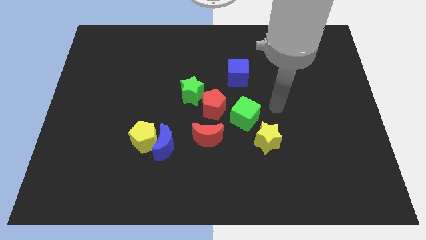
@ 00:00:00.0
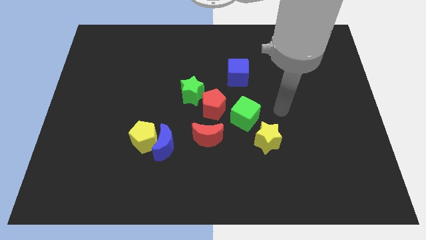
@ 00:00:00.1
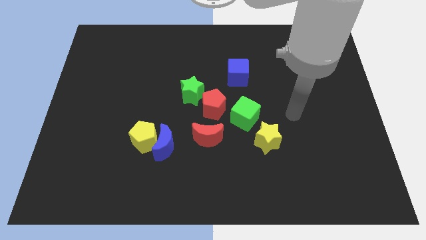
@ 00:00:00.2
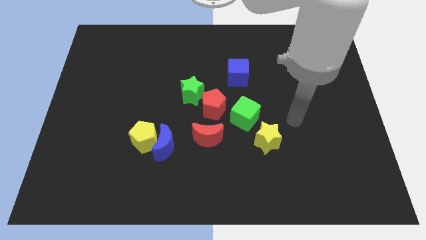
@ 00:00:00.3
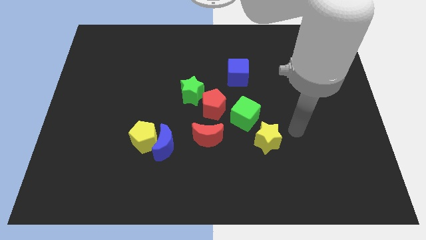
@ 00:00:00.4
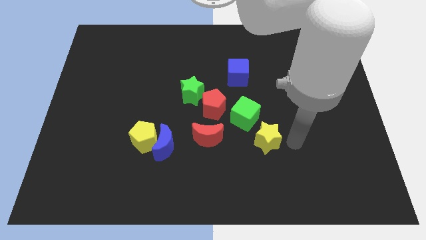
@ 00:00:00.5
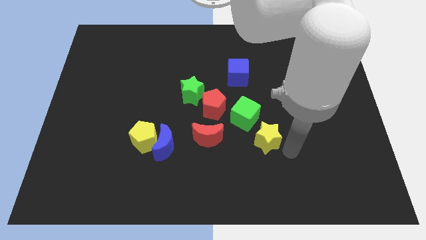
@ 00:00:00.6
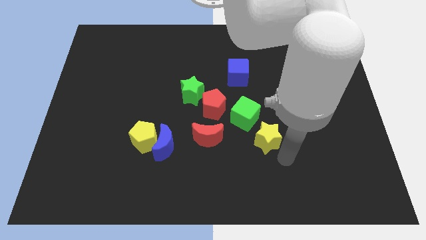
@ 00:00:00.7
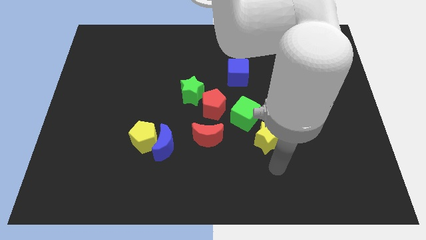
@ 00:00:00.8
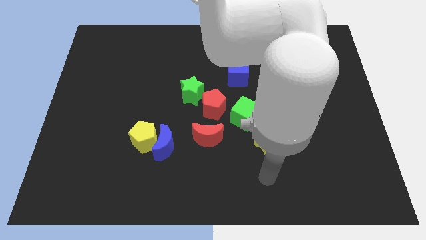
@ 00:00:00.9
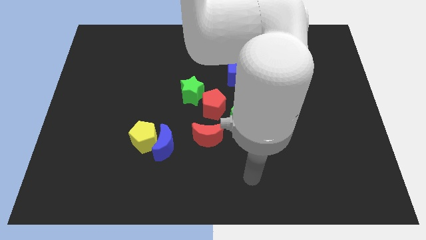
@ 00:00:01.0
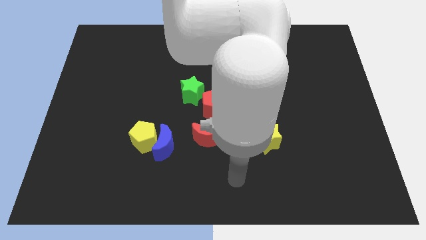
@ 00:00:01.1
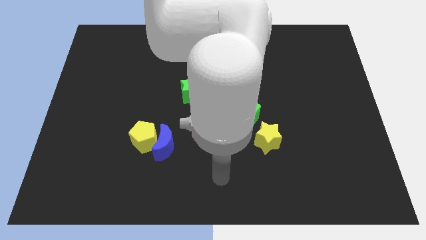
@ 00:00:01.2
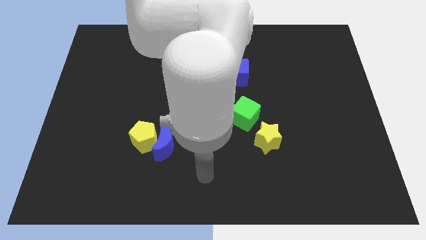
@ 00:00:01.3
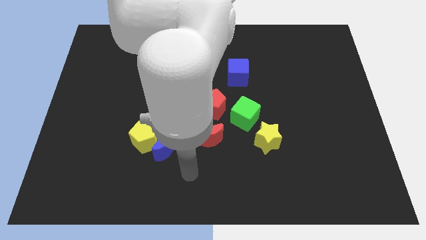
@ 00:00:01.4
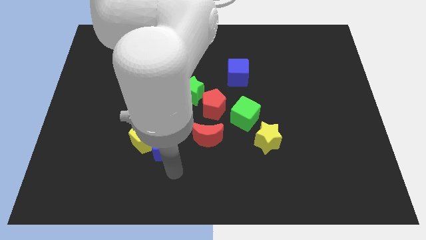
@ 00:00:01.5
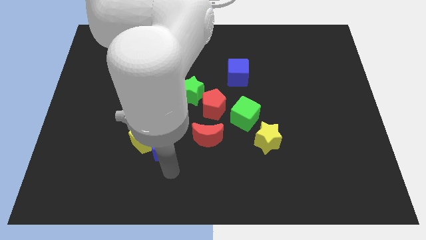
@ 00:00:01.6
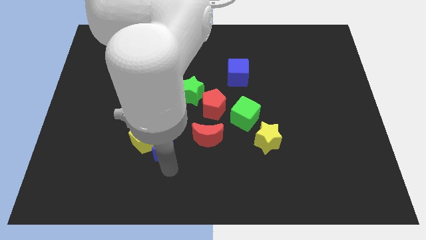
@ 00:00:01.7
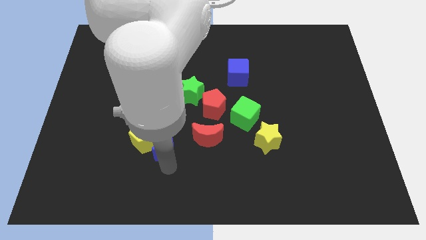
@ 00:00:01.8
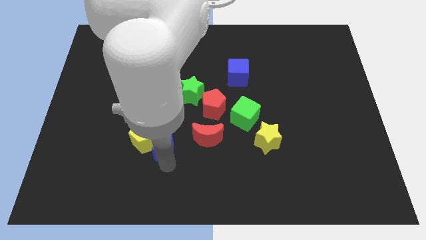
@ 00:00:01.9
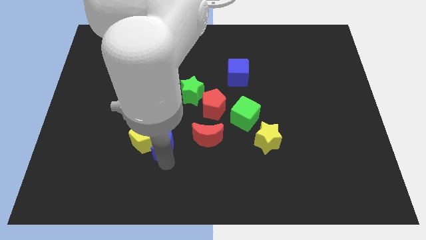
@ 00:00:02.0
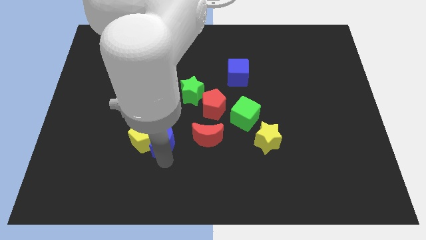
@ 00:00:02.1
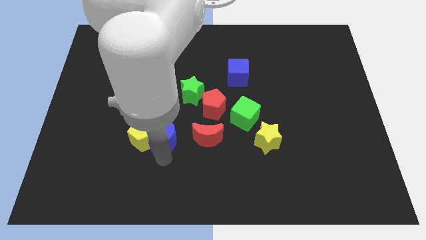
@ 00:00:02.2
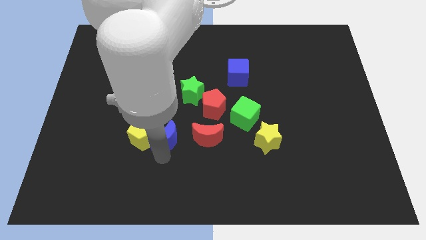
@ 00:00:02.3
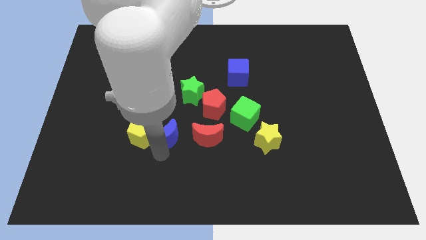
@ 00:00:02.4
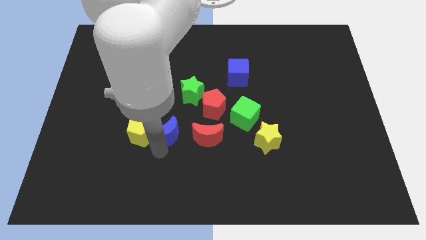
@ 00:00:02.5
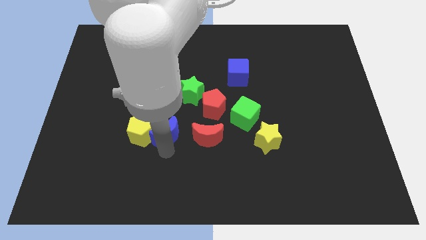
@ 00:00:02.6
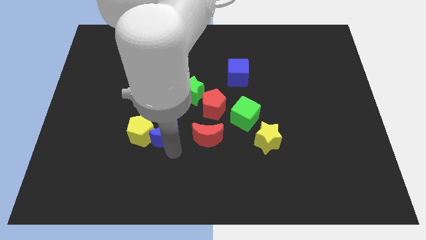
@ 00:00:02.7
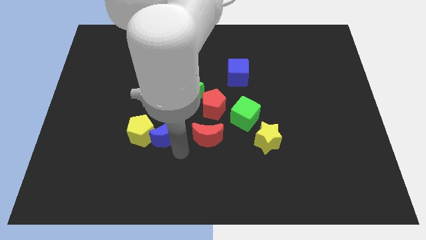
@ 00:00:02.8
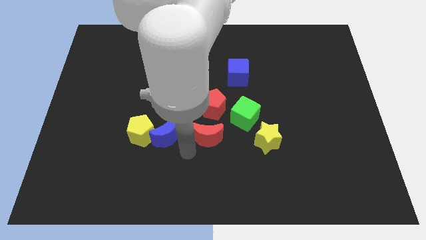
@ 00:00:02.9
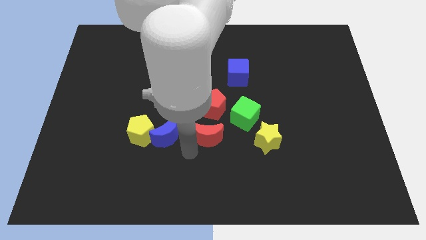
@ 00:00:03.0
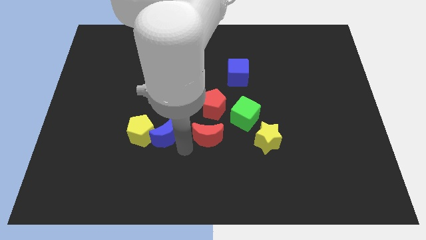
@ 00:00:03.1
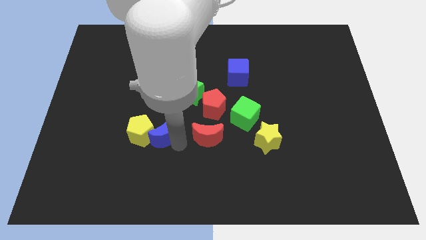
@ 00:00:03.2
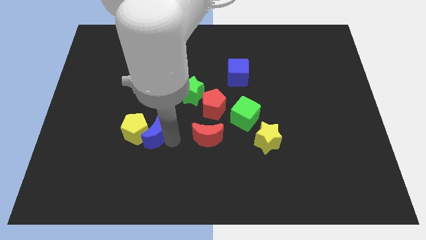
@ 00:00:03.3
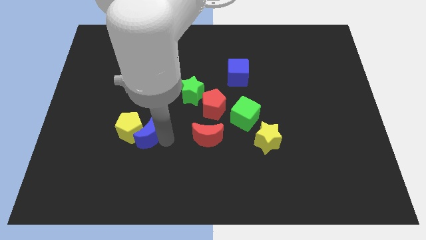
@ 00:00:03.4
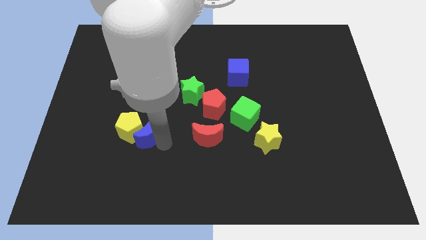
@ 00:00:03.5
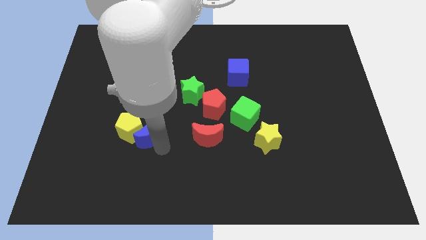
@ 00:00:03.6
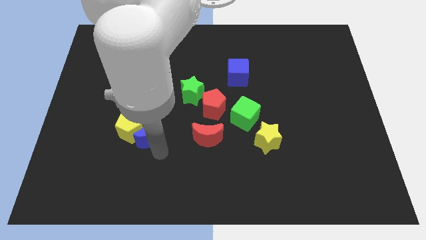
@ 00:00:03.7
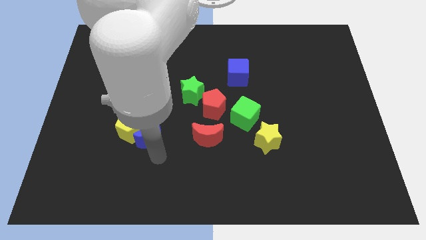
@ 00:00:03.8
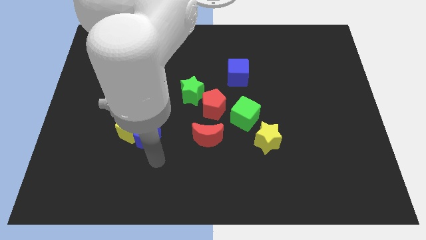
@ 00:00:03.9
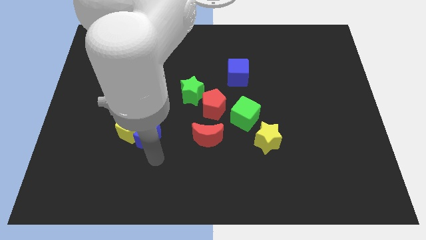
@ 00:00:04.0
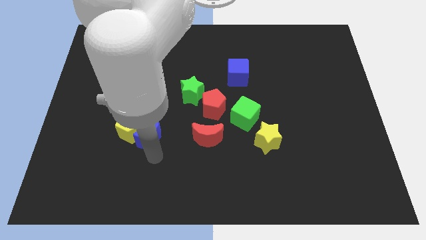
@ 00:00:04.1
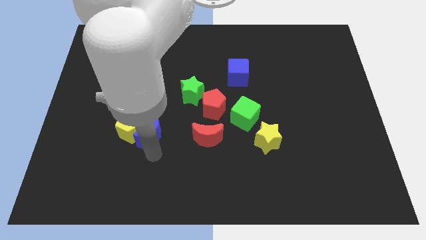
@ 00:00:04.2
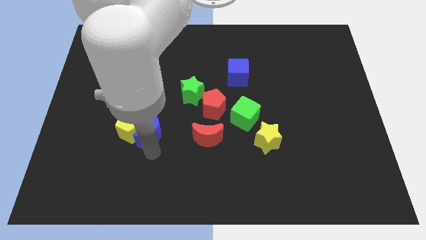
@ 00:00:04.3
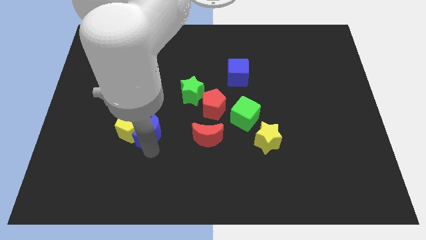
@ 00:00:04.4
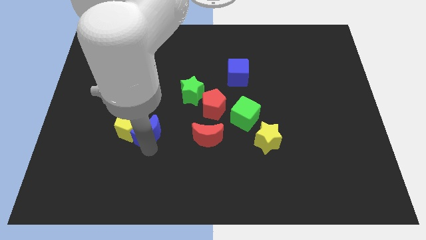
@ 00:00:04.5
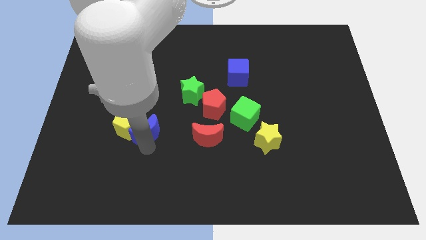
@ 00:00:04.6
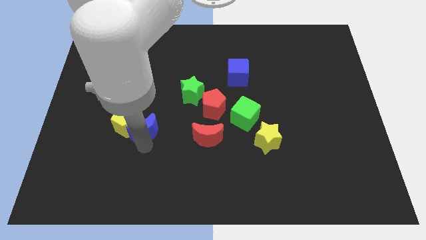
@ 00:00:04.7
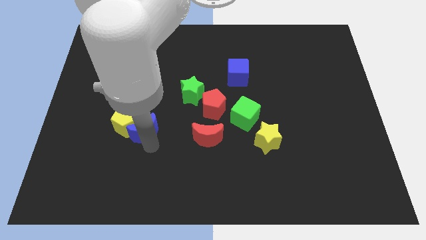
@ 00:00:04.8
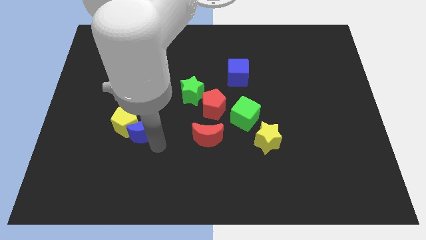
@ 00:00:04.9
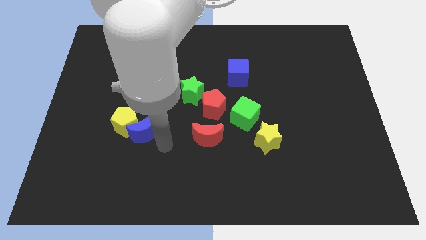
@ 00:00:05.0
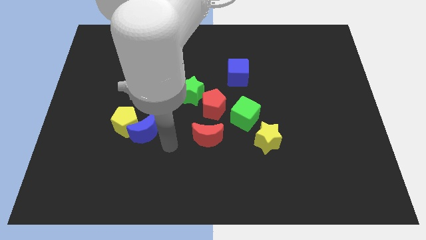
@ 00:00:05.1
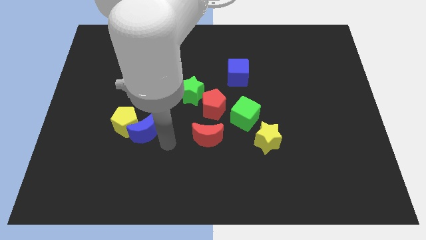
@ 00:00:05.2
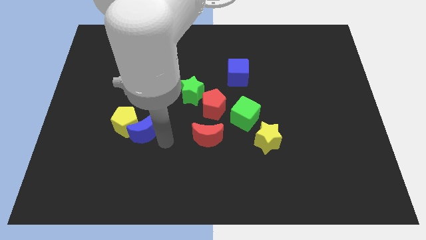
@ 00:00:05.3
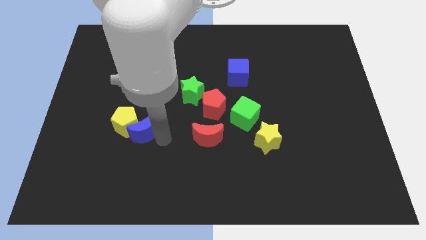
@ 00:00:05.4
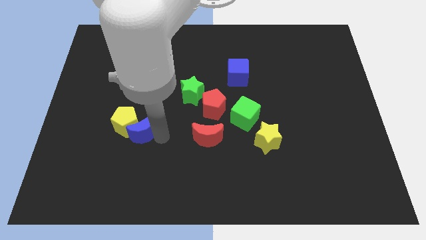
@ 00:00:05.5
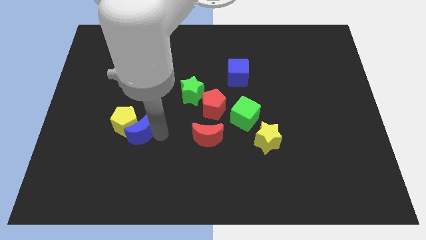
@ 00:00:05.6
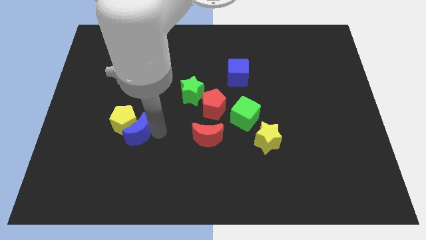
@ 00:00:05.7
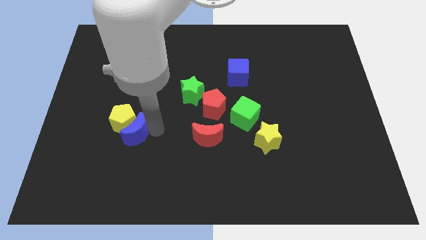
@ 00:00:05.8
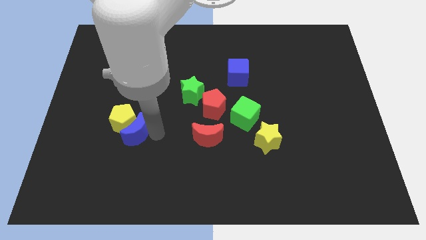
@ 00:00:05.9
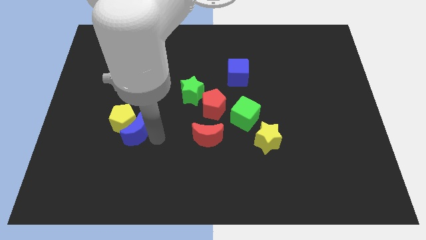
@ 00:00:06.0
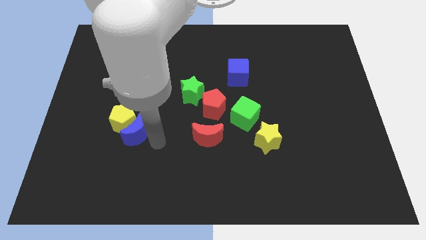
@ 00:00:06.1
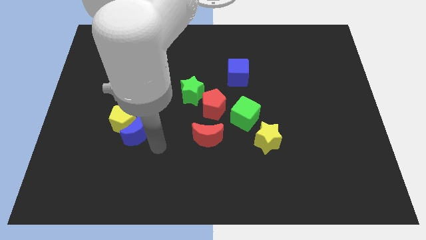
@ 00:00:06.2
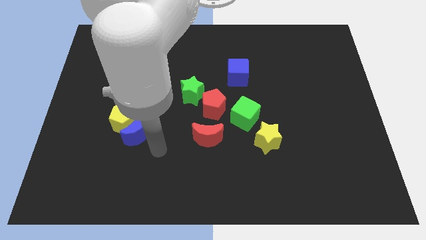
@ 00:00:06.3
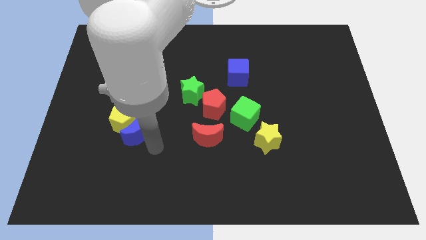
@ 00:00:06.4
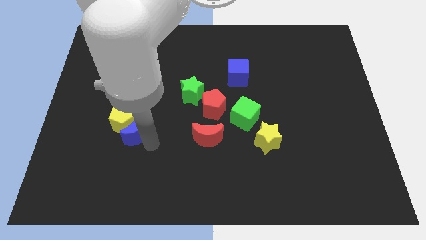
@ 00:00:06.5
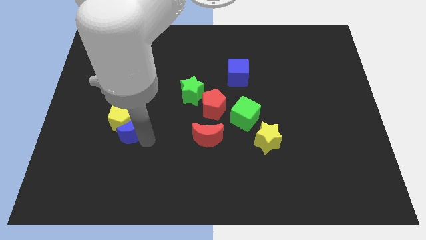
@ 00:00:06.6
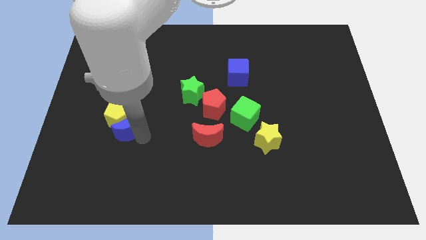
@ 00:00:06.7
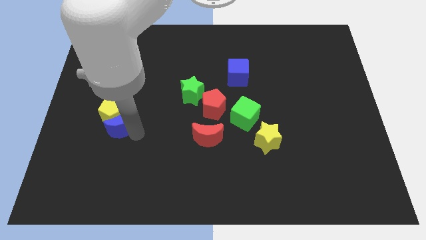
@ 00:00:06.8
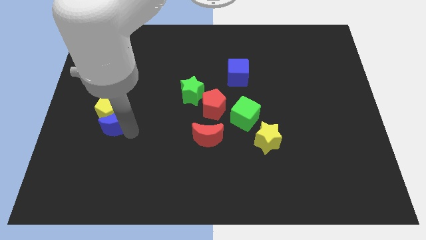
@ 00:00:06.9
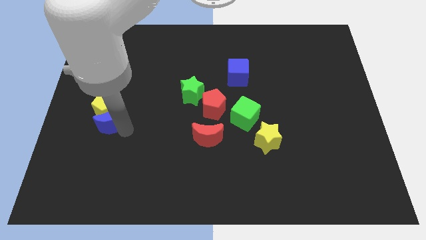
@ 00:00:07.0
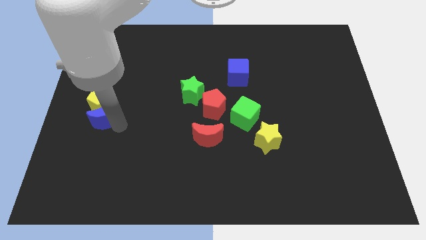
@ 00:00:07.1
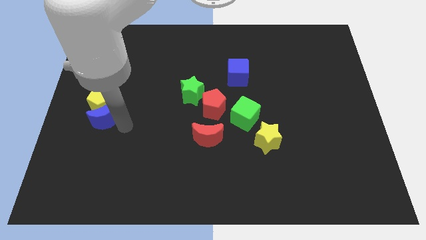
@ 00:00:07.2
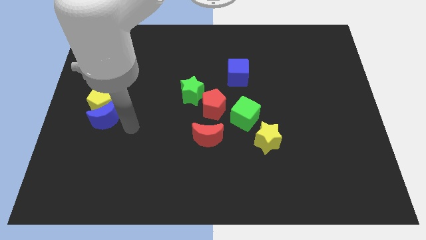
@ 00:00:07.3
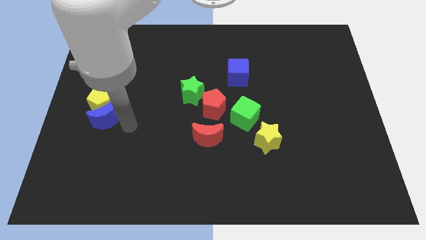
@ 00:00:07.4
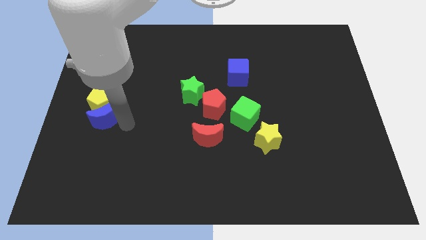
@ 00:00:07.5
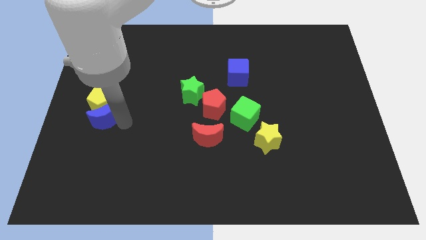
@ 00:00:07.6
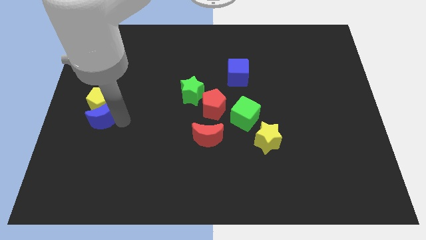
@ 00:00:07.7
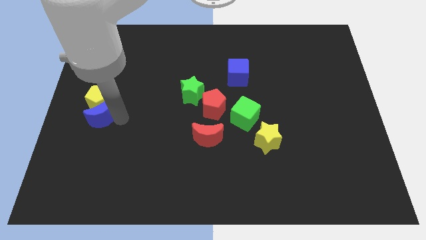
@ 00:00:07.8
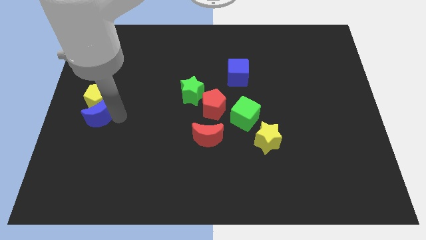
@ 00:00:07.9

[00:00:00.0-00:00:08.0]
put the blue moon to the left side of the board
